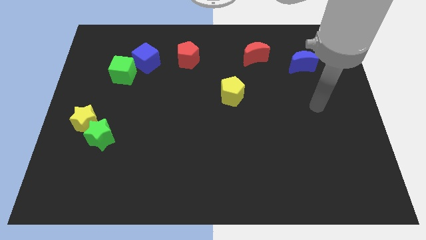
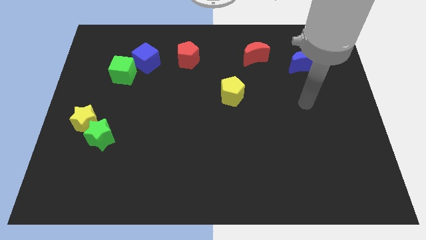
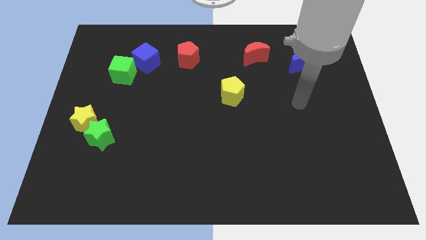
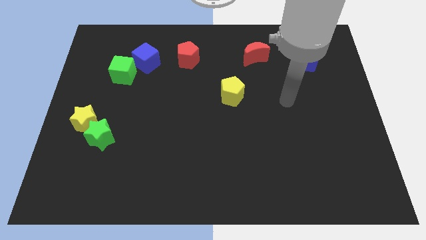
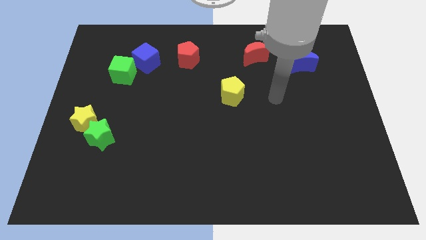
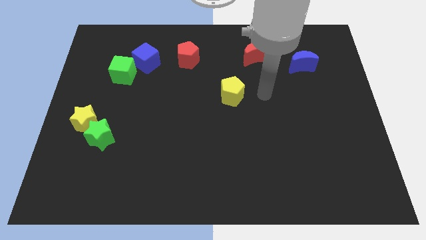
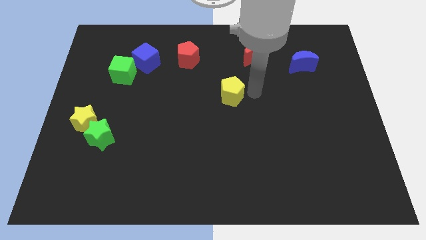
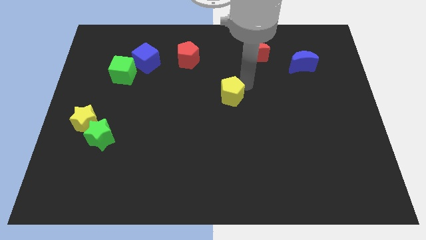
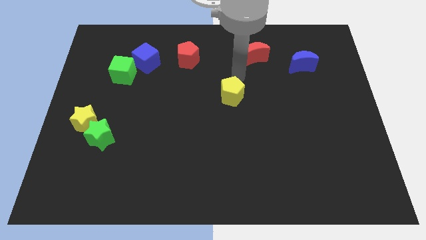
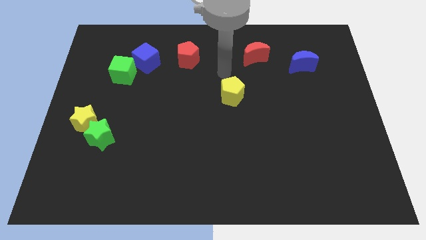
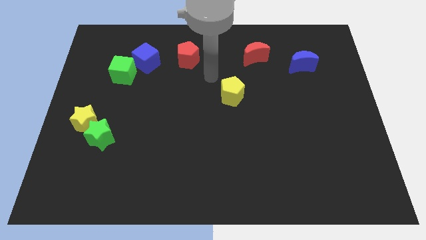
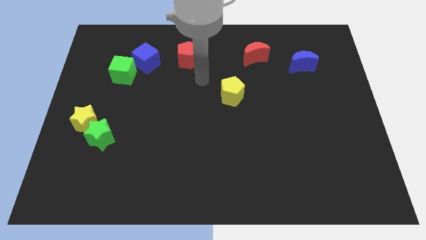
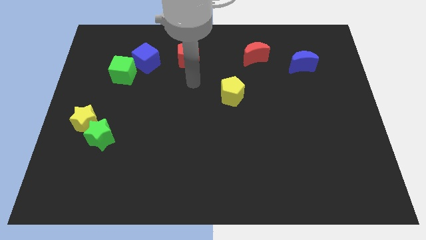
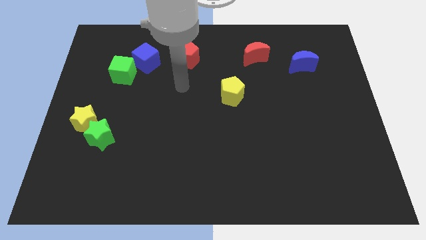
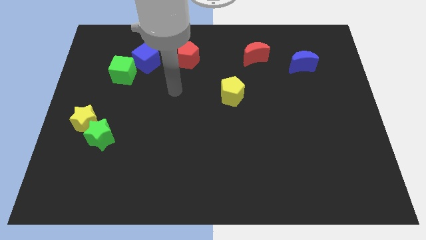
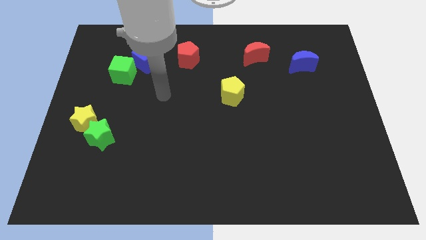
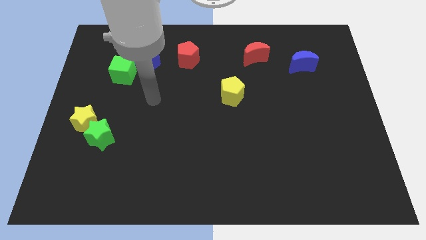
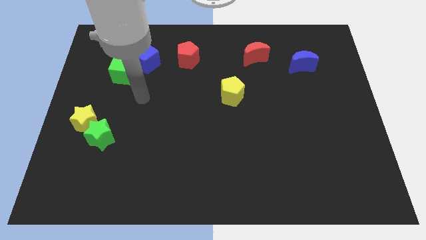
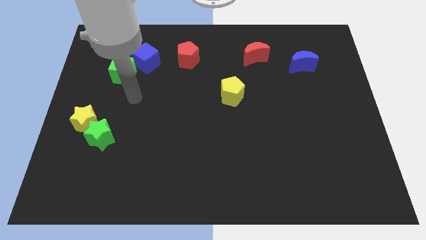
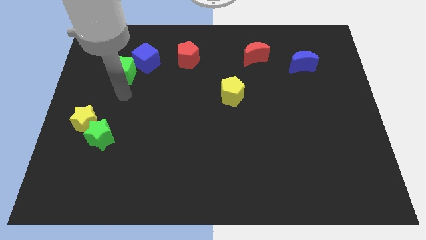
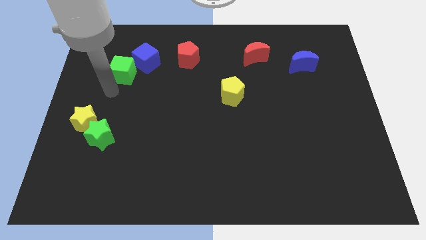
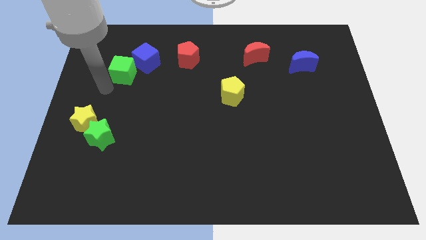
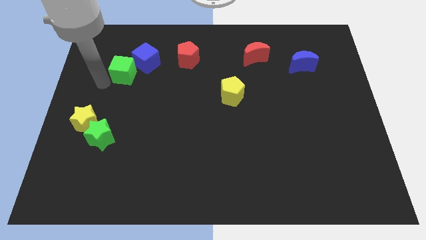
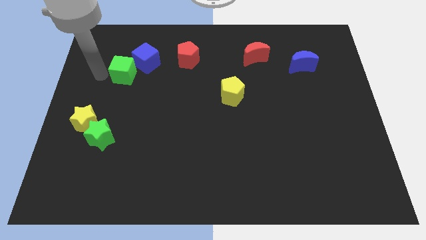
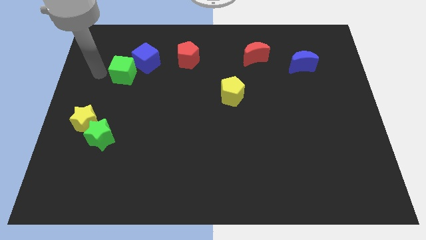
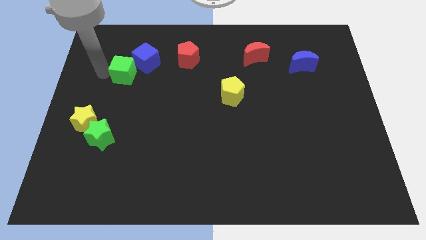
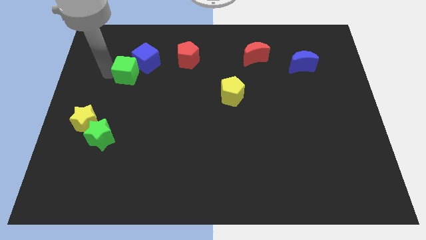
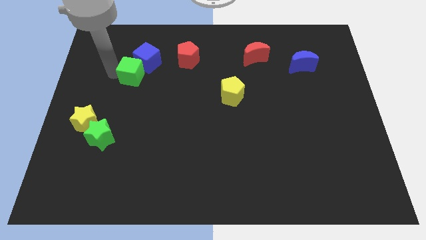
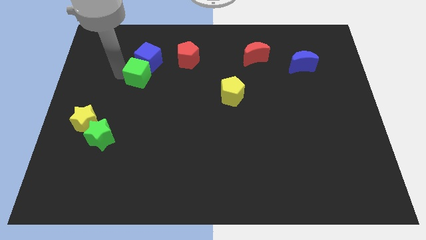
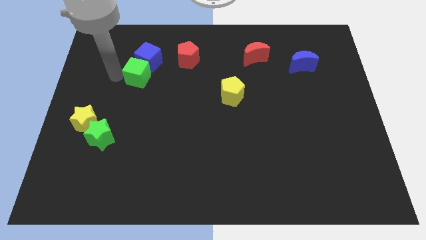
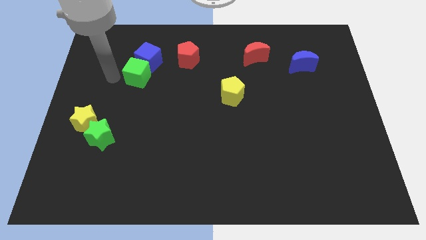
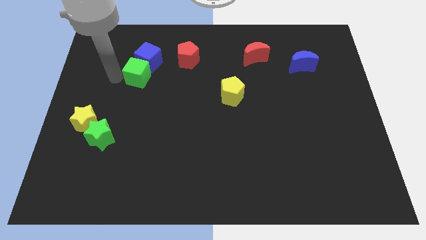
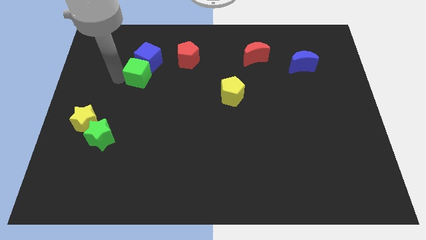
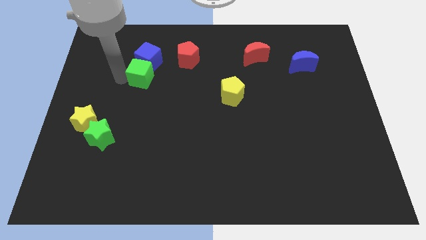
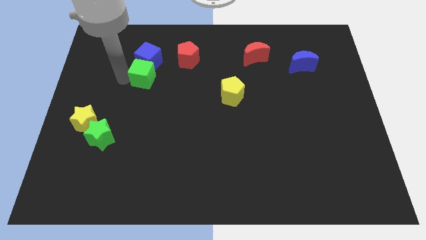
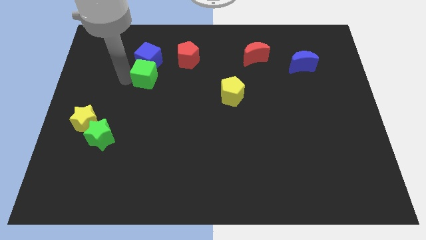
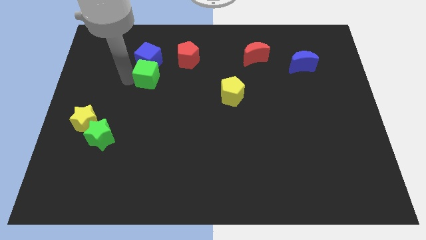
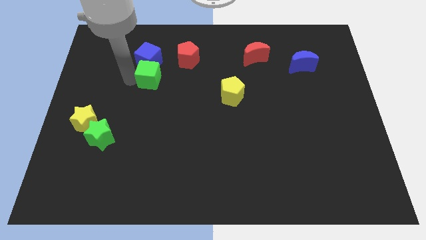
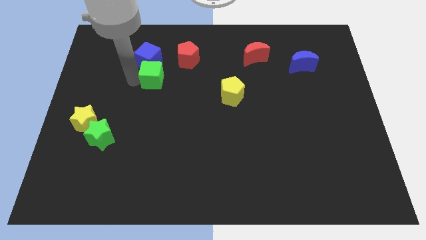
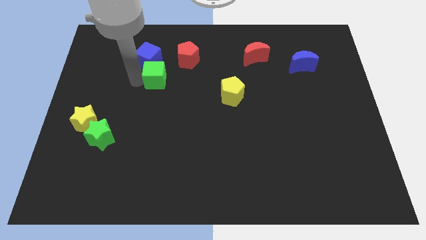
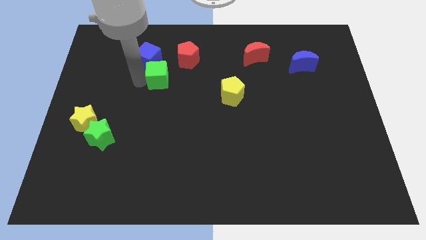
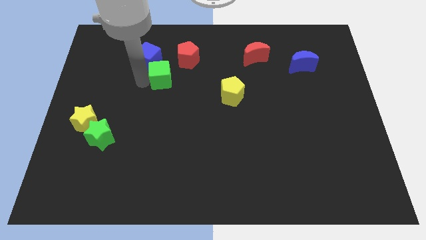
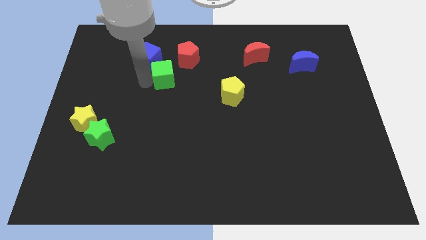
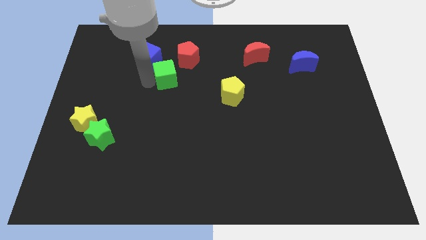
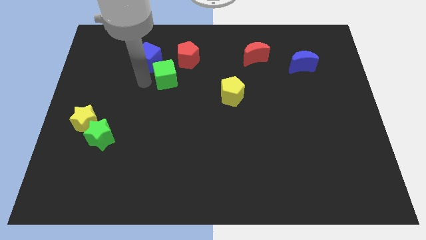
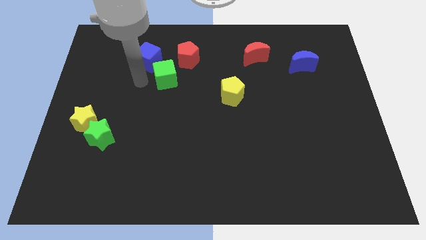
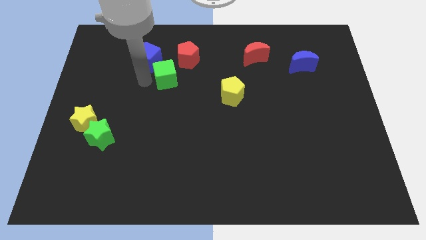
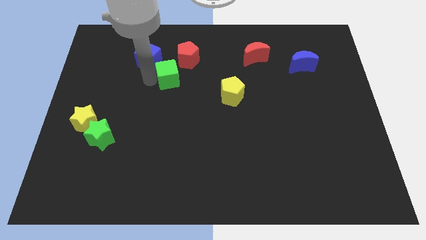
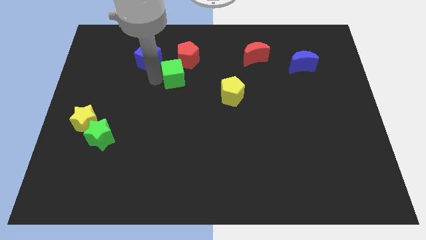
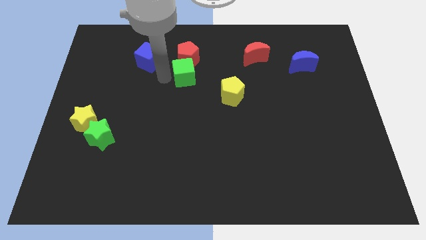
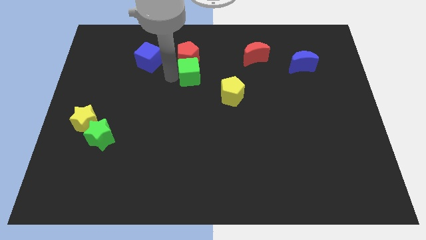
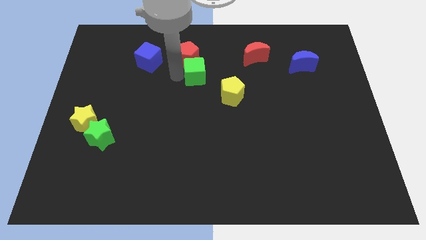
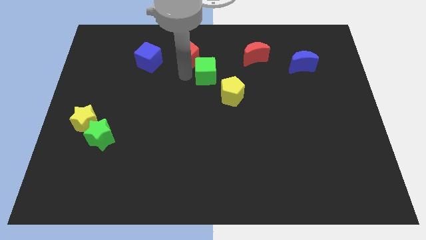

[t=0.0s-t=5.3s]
push the green cube right

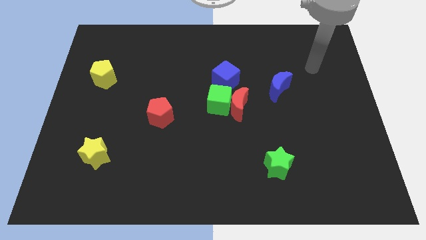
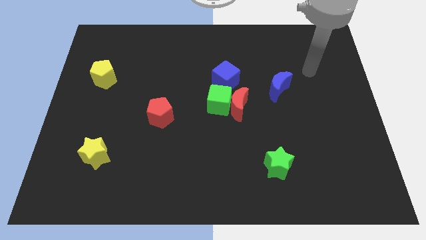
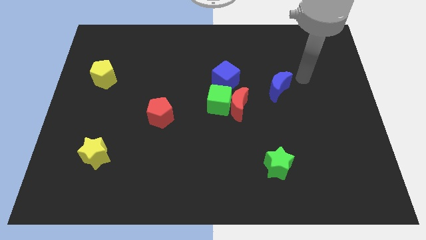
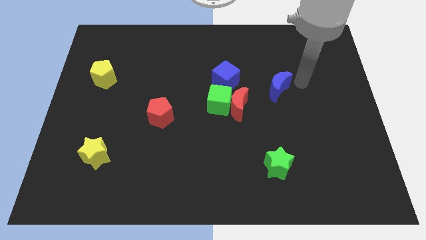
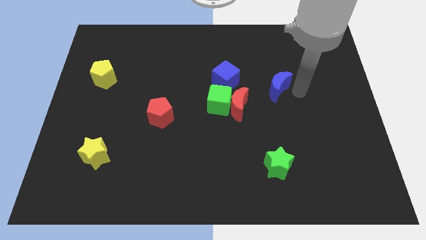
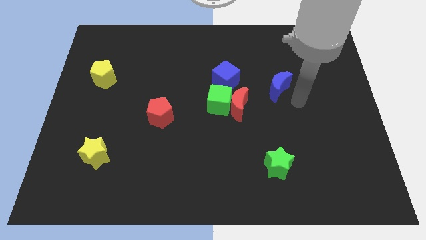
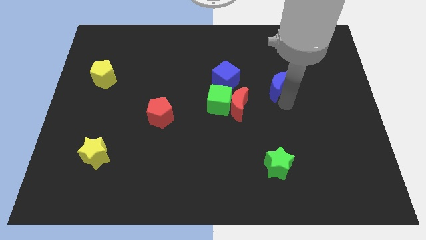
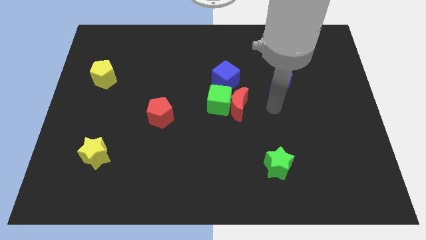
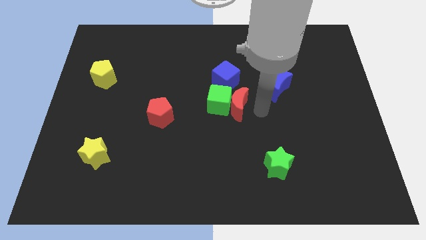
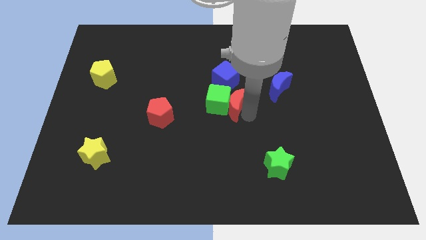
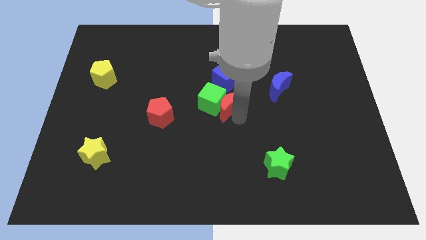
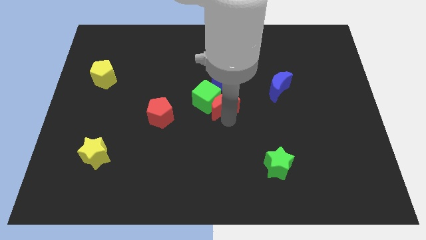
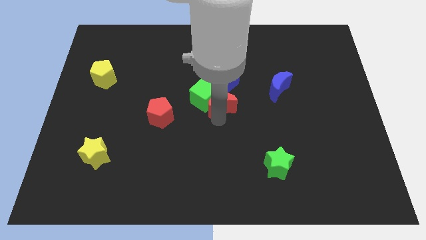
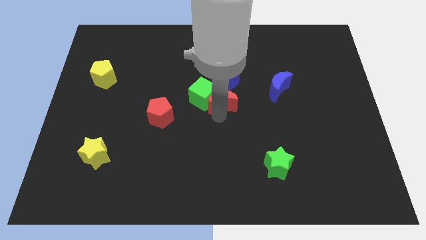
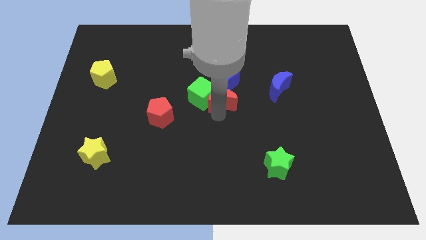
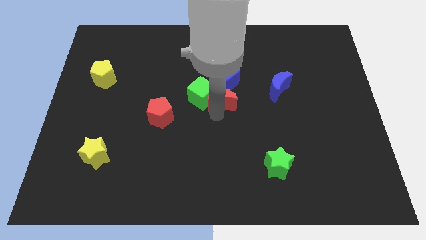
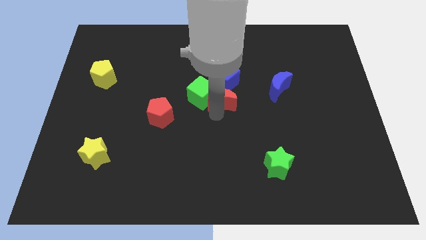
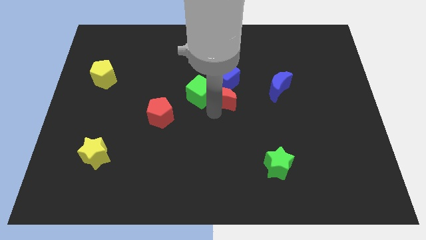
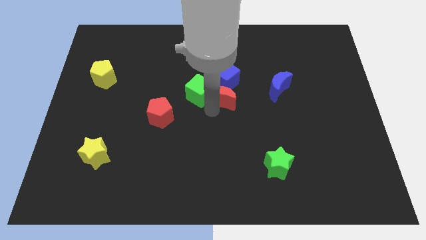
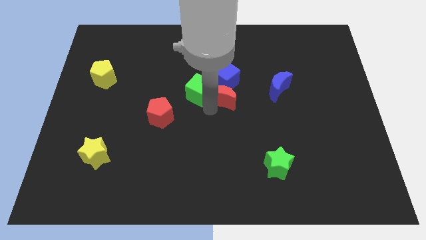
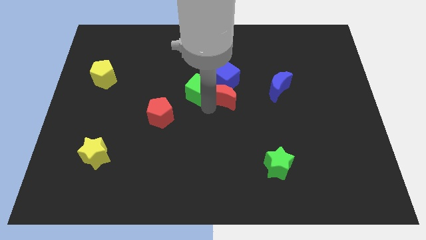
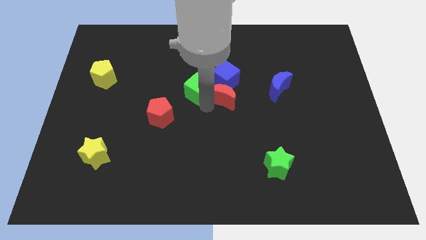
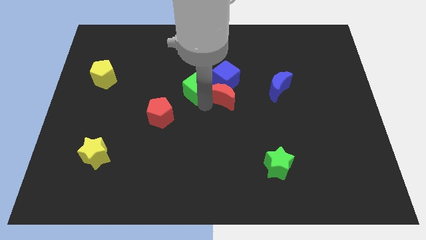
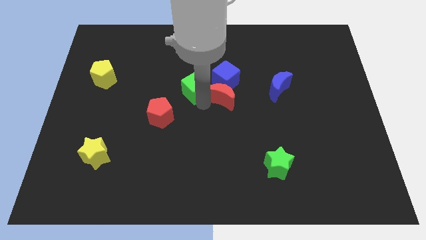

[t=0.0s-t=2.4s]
slide the green cube a little upwards and left

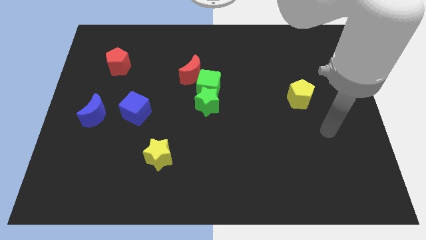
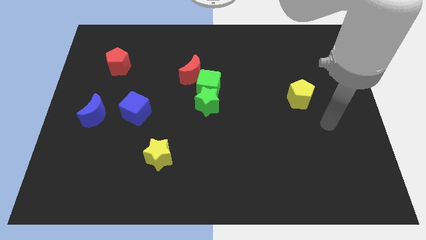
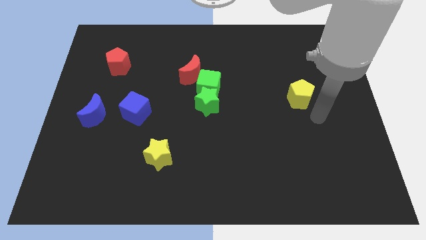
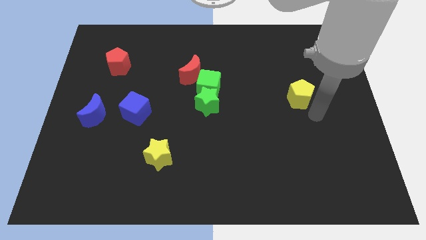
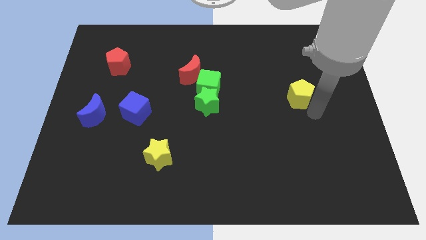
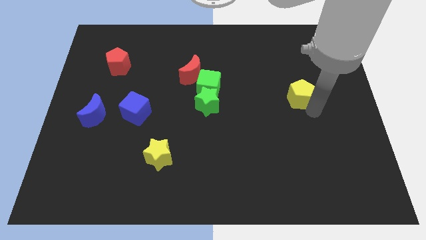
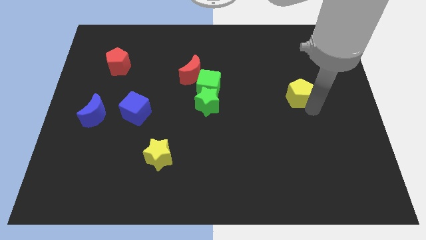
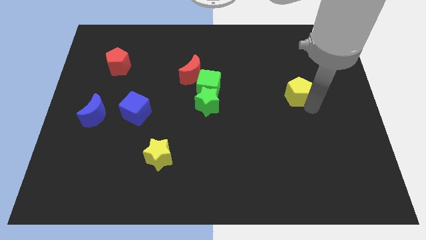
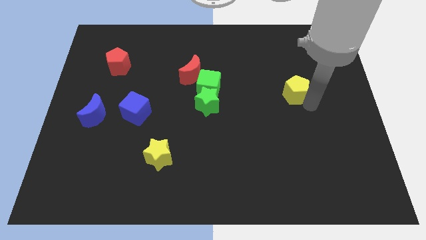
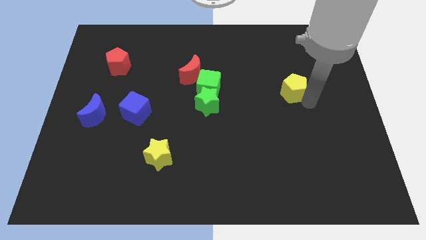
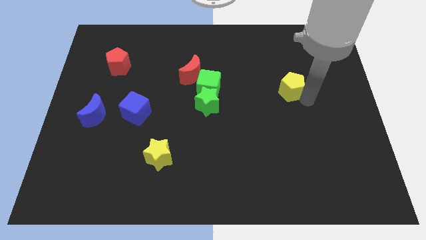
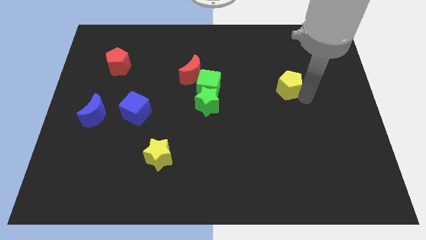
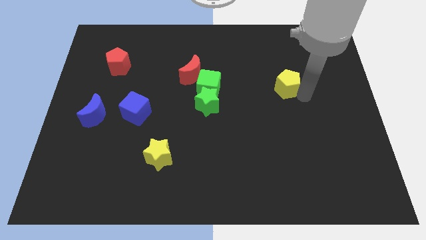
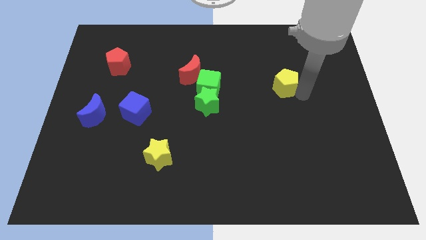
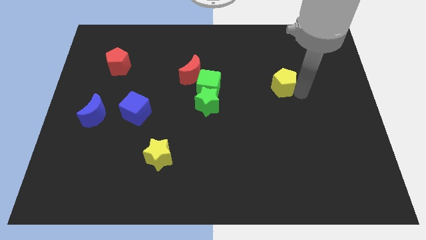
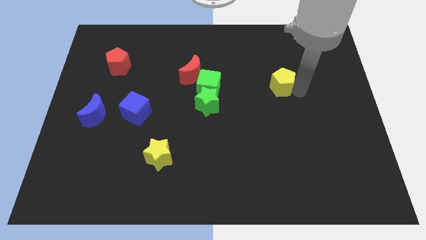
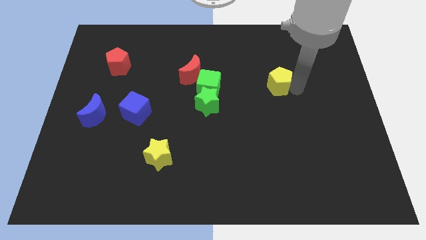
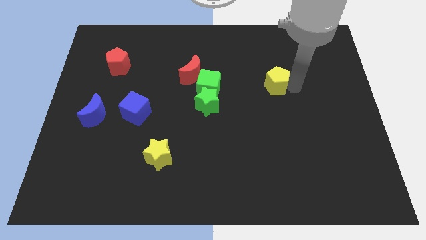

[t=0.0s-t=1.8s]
slightly push the yellow pentagon diagonally up and to the left
